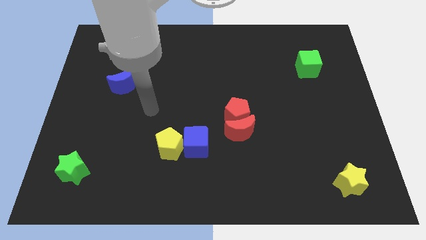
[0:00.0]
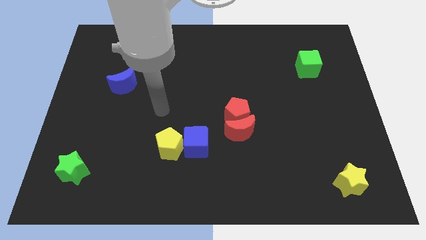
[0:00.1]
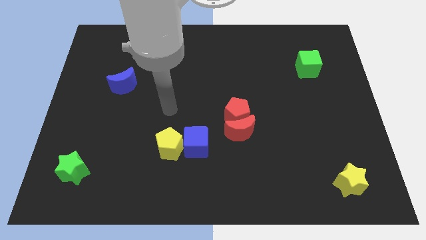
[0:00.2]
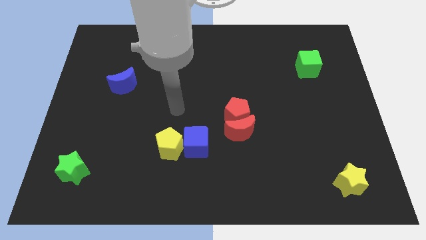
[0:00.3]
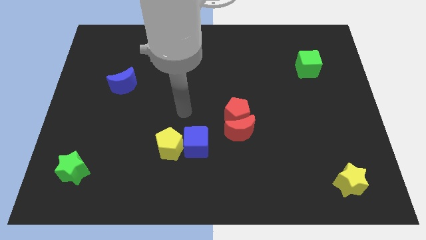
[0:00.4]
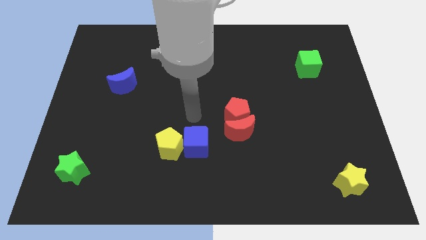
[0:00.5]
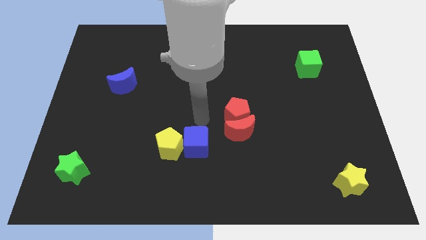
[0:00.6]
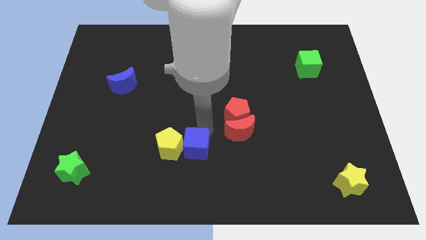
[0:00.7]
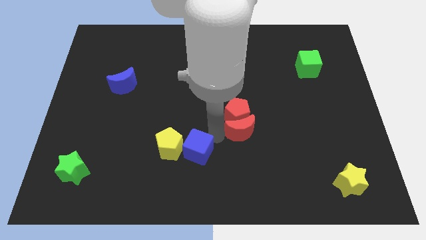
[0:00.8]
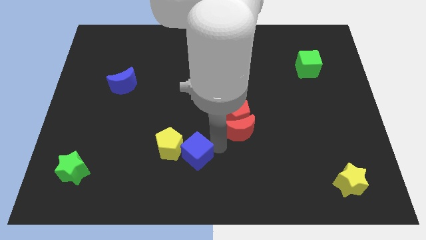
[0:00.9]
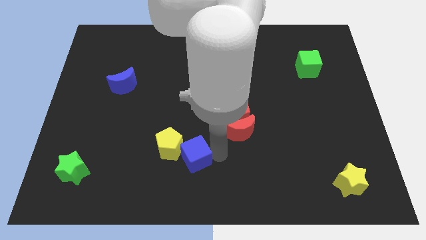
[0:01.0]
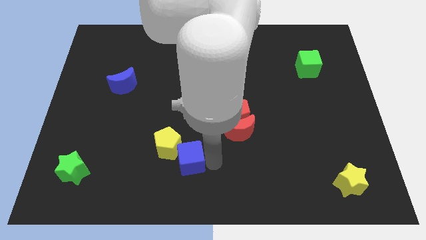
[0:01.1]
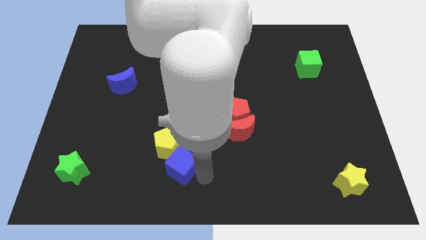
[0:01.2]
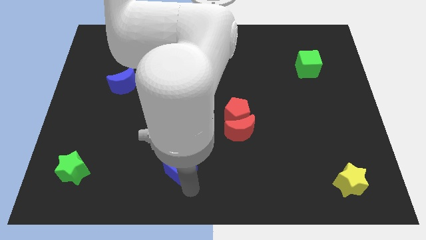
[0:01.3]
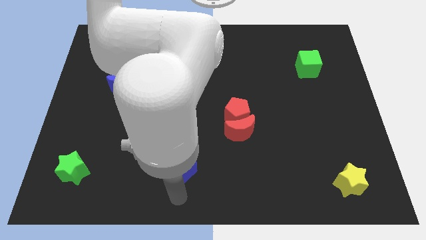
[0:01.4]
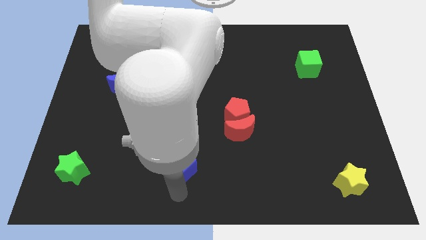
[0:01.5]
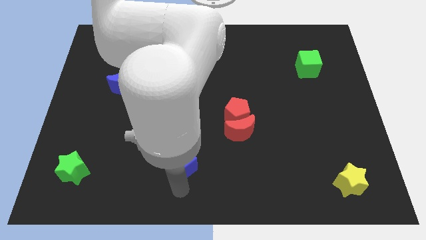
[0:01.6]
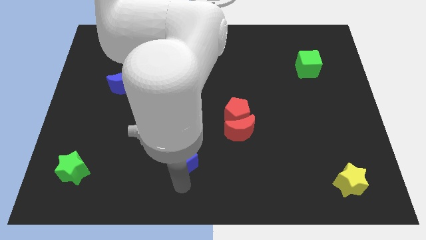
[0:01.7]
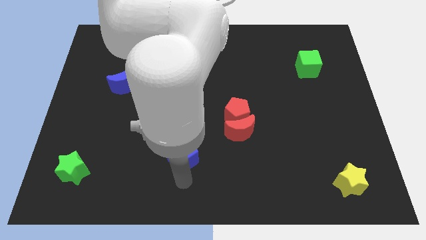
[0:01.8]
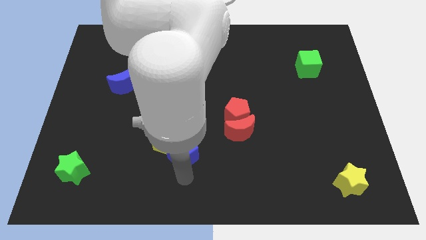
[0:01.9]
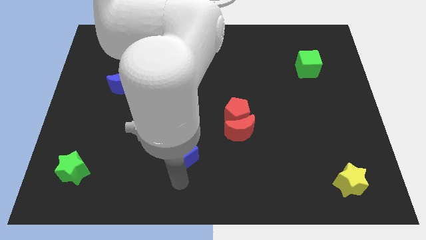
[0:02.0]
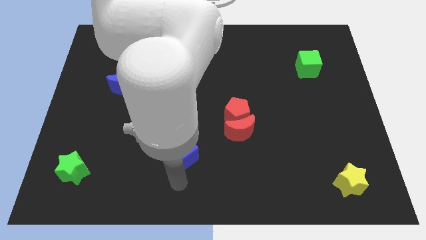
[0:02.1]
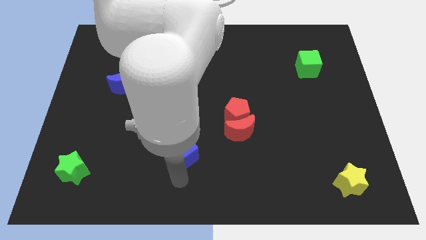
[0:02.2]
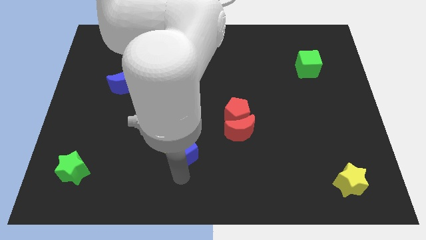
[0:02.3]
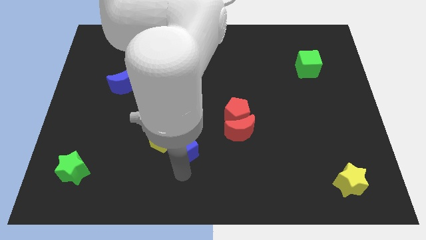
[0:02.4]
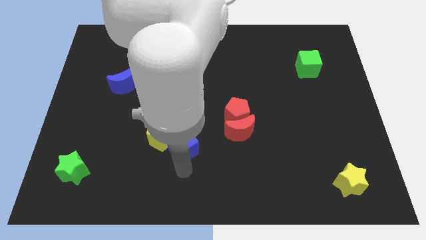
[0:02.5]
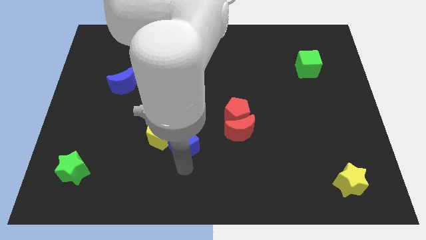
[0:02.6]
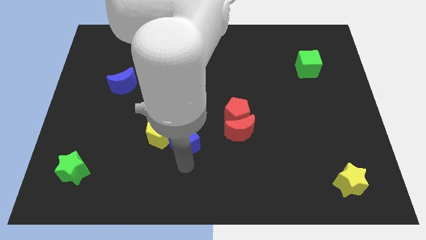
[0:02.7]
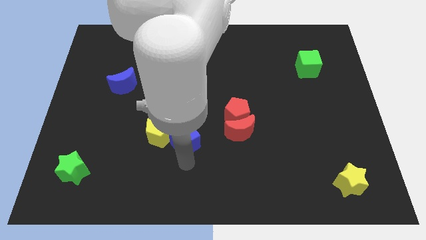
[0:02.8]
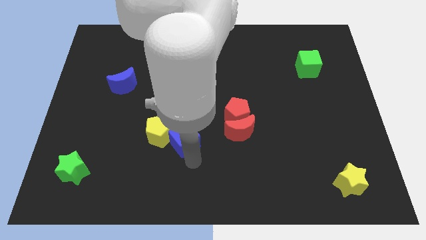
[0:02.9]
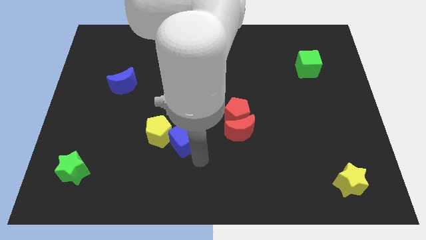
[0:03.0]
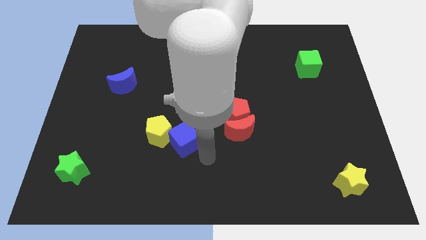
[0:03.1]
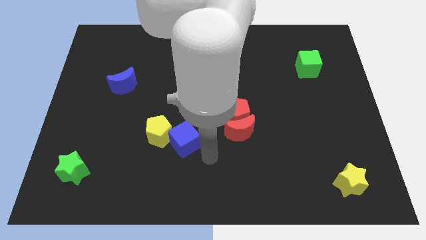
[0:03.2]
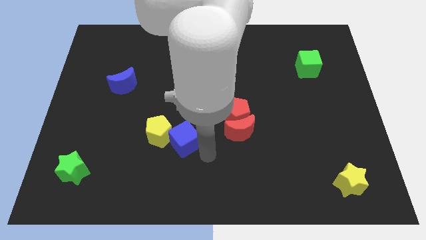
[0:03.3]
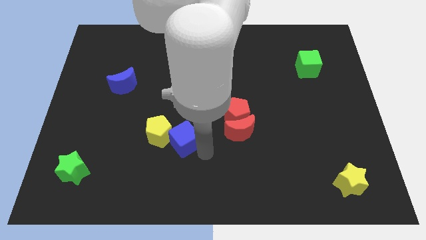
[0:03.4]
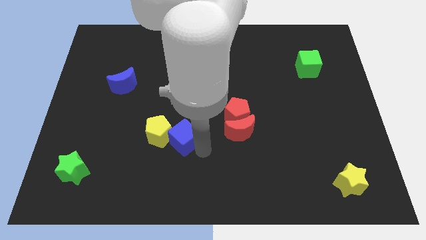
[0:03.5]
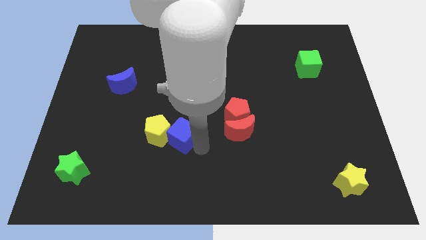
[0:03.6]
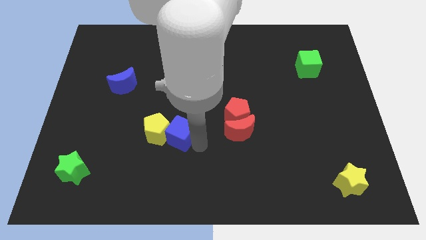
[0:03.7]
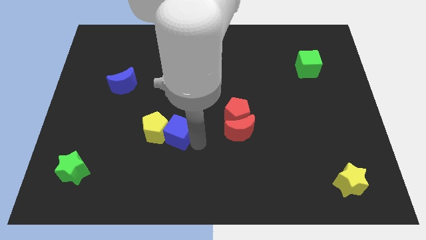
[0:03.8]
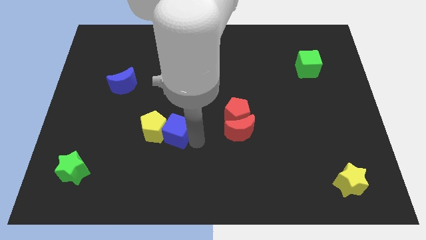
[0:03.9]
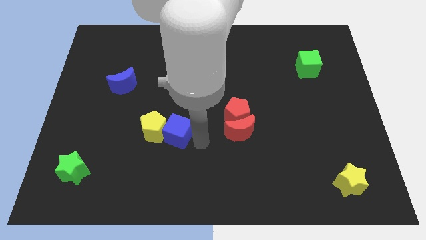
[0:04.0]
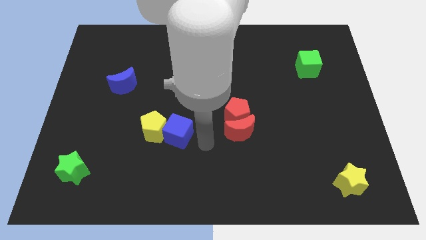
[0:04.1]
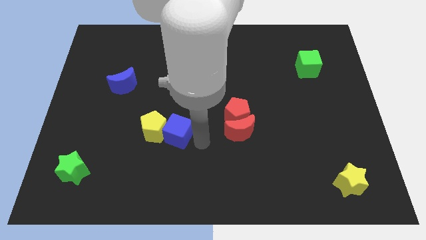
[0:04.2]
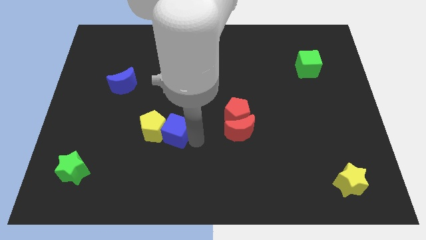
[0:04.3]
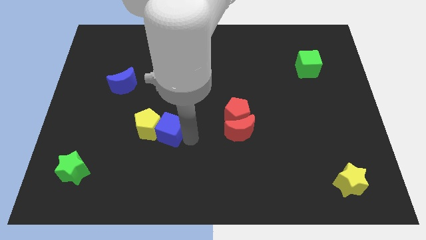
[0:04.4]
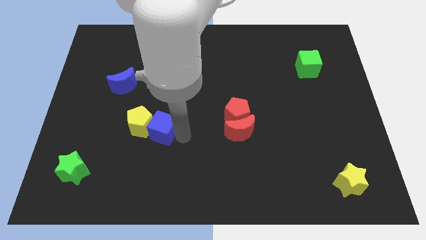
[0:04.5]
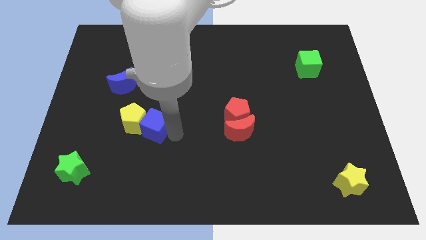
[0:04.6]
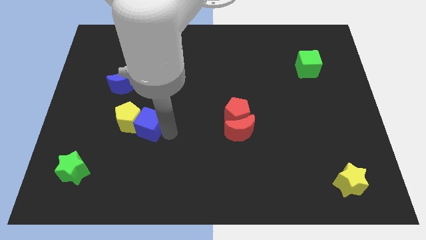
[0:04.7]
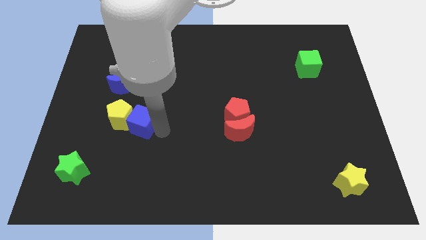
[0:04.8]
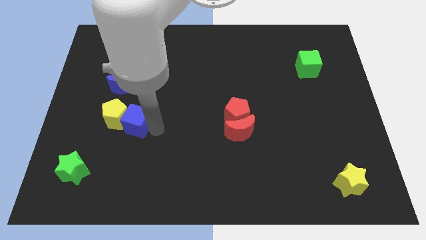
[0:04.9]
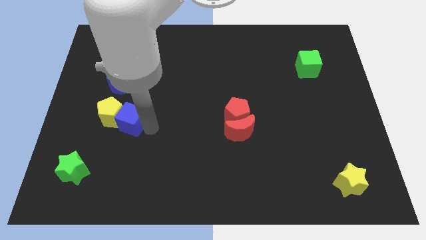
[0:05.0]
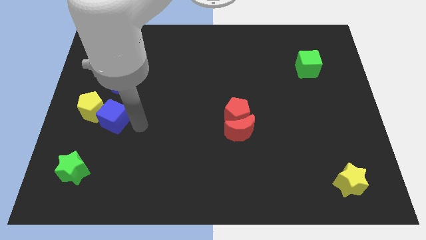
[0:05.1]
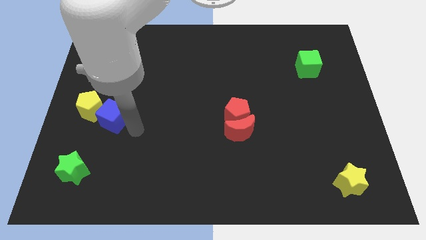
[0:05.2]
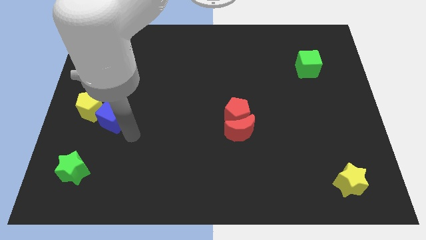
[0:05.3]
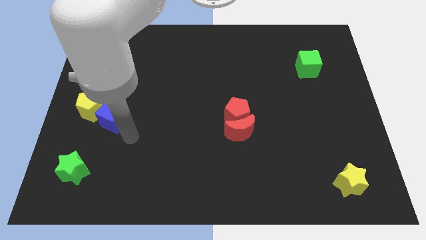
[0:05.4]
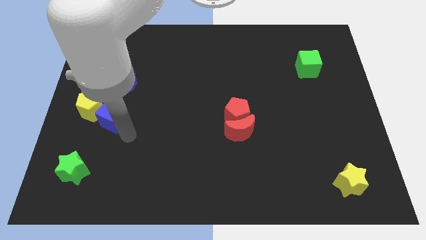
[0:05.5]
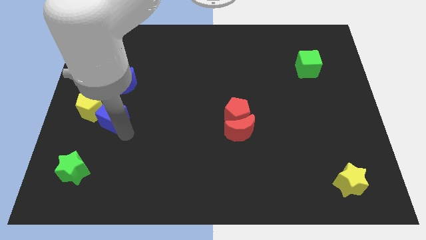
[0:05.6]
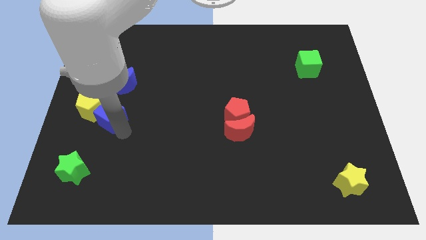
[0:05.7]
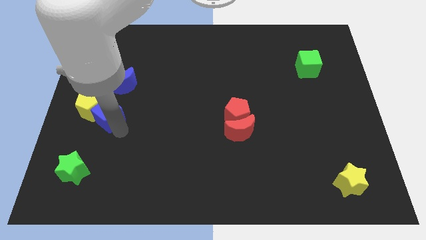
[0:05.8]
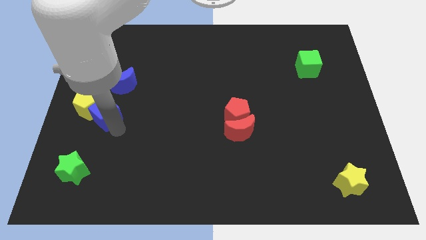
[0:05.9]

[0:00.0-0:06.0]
push the blue cube diagonally down and to the left of the blue moon

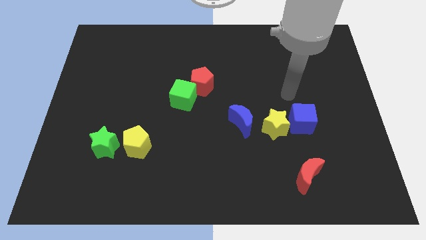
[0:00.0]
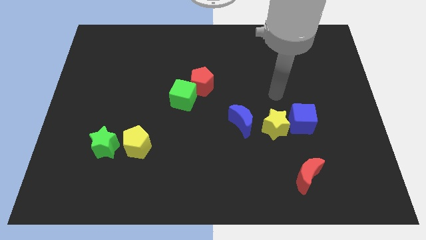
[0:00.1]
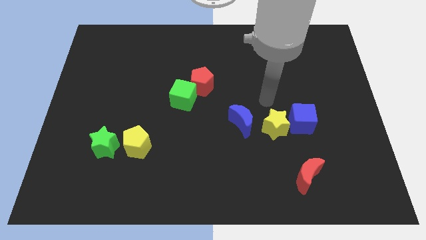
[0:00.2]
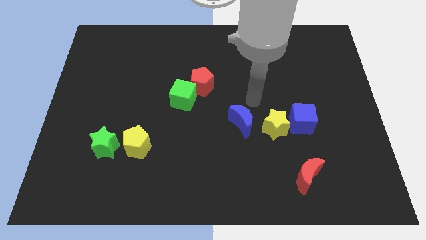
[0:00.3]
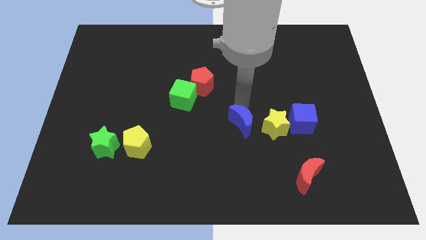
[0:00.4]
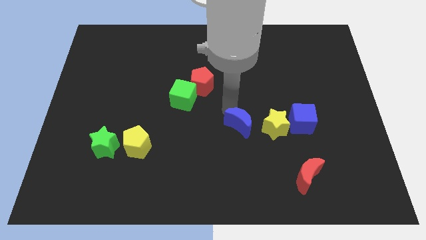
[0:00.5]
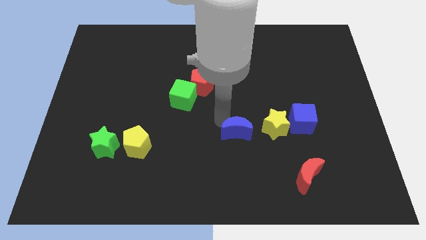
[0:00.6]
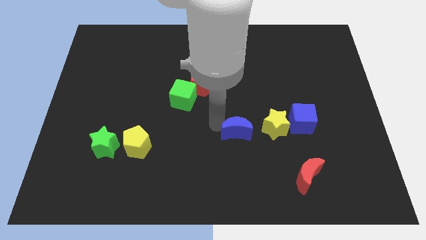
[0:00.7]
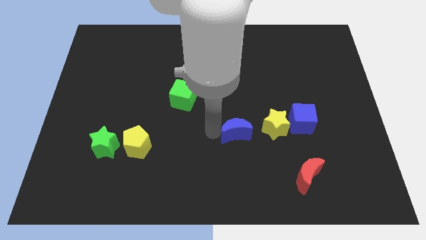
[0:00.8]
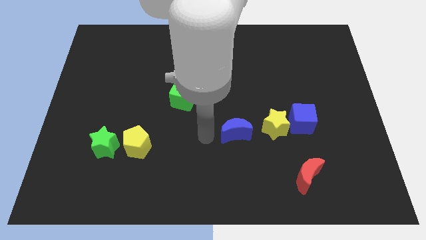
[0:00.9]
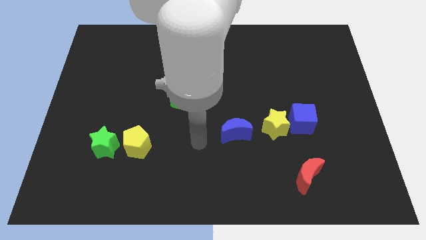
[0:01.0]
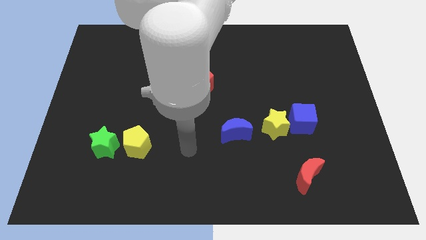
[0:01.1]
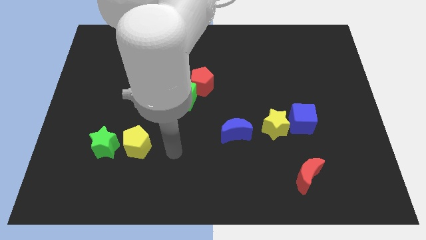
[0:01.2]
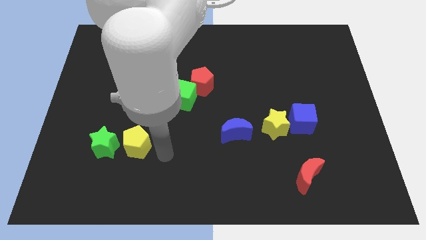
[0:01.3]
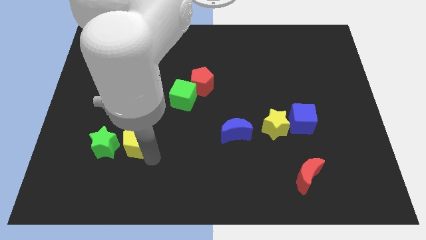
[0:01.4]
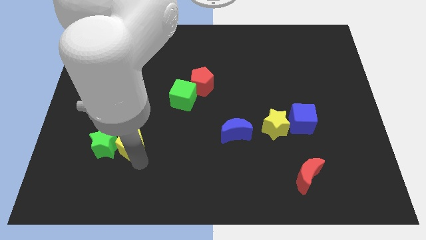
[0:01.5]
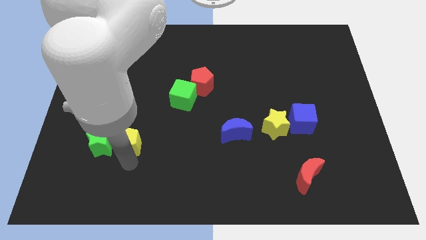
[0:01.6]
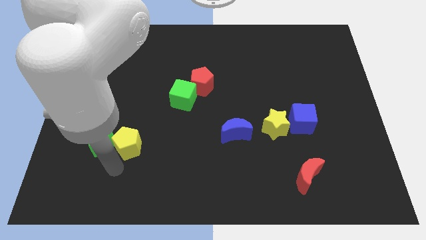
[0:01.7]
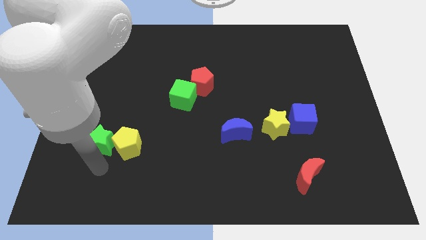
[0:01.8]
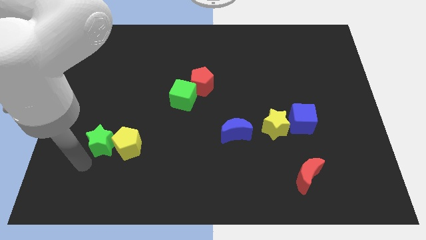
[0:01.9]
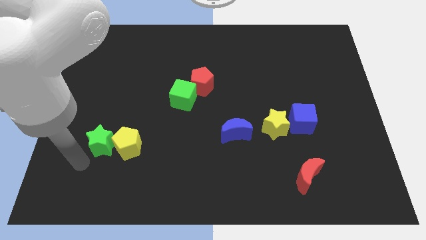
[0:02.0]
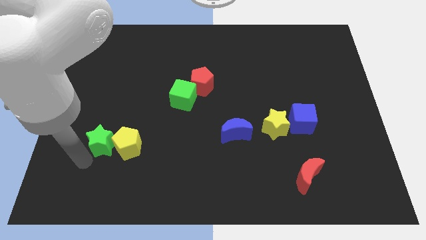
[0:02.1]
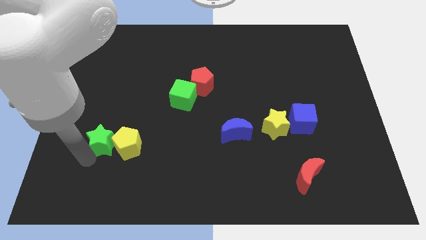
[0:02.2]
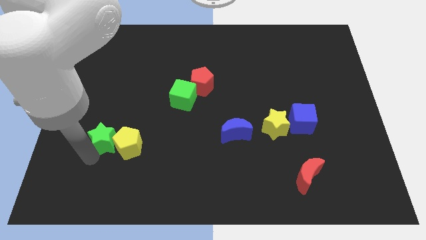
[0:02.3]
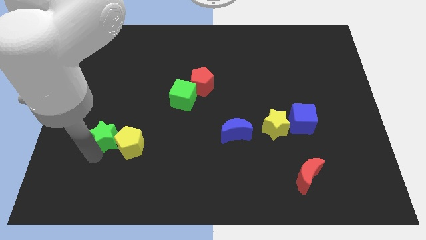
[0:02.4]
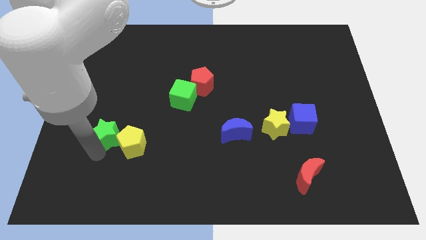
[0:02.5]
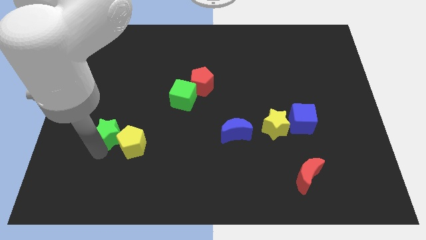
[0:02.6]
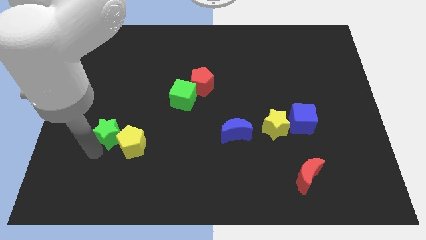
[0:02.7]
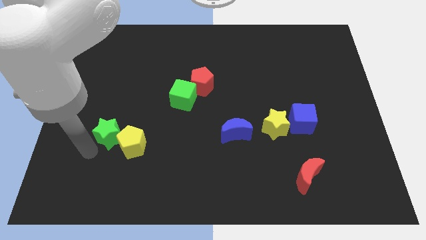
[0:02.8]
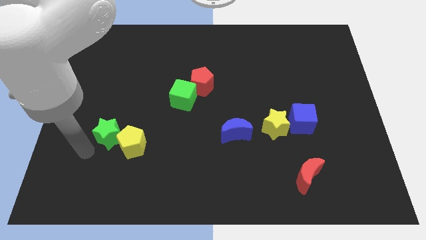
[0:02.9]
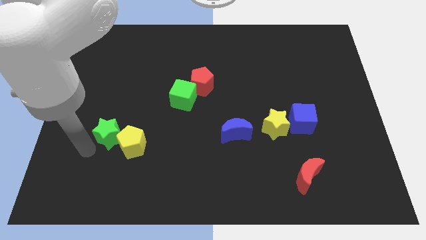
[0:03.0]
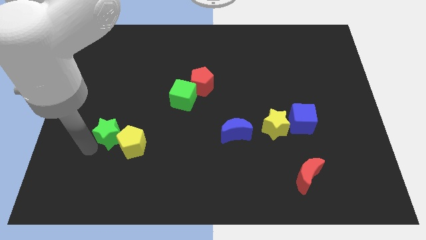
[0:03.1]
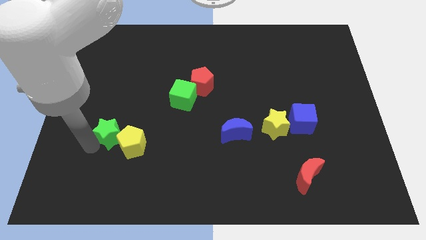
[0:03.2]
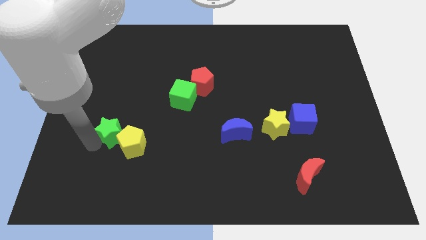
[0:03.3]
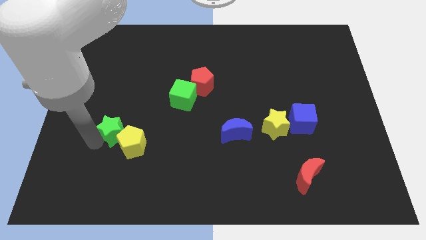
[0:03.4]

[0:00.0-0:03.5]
put the green star above the yellow pentagon
